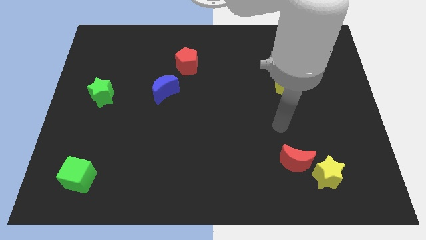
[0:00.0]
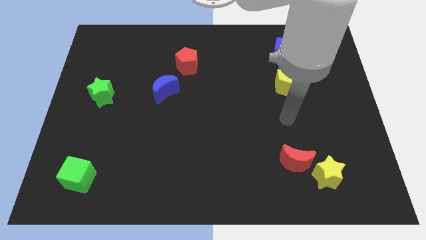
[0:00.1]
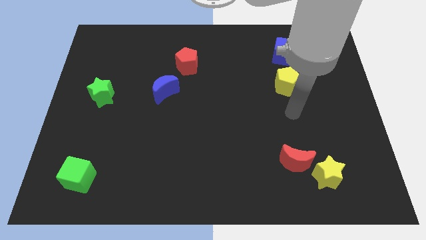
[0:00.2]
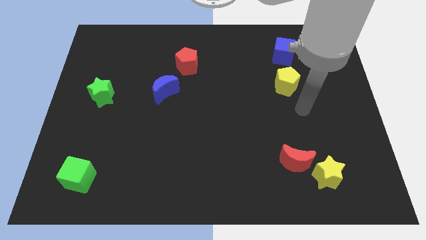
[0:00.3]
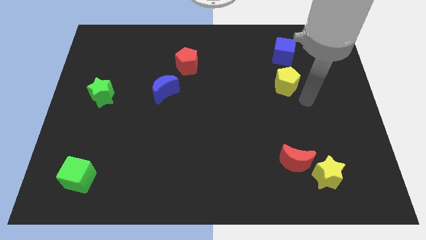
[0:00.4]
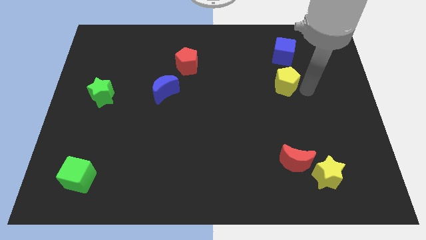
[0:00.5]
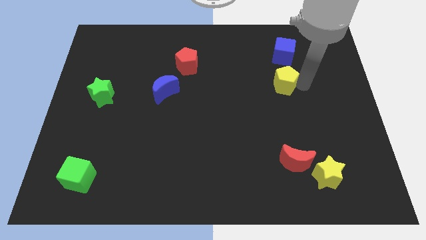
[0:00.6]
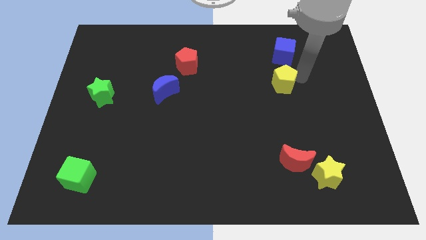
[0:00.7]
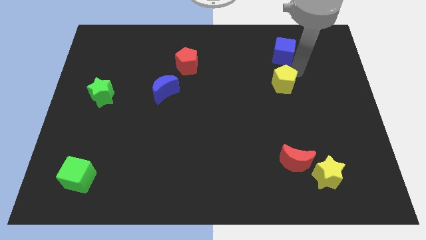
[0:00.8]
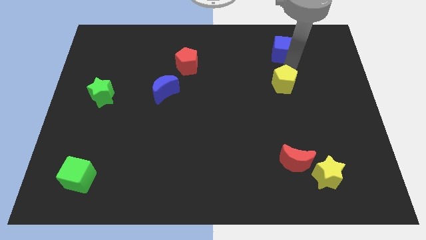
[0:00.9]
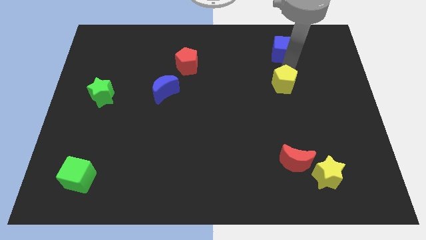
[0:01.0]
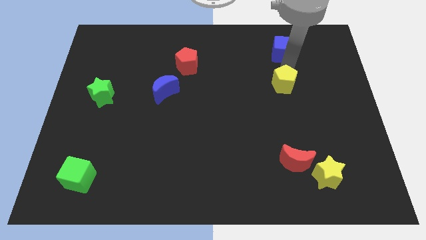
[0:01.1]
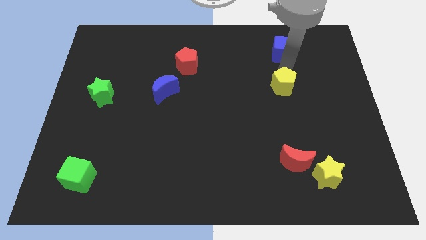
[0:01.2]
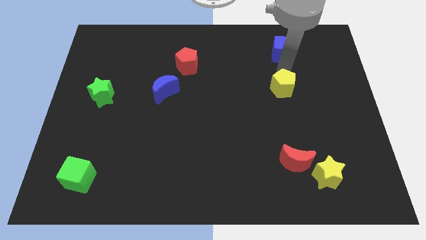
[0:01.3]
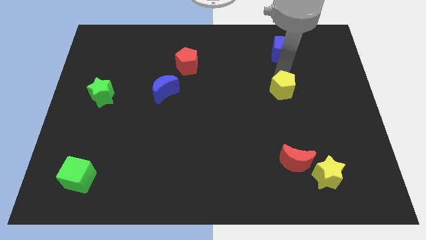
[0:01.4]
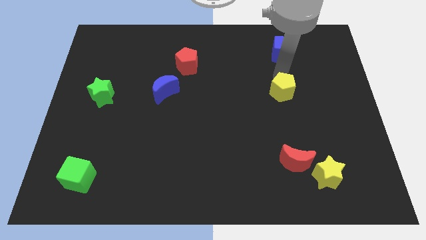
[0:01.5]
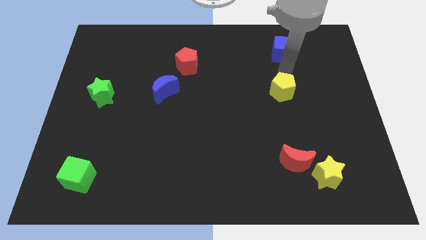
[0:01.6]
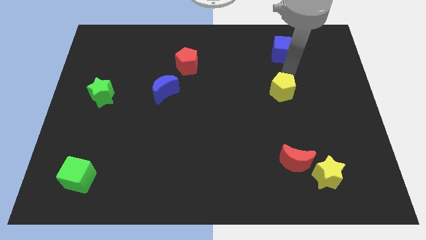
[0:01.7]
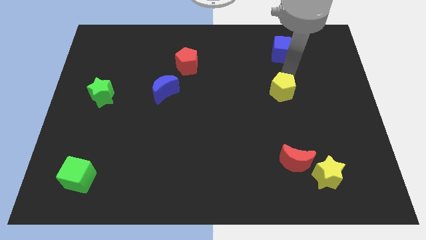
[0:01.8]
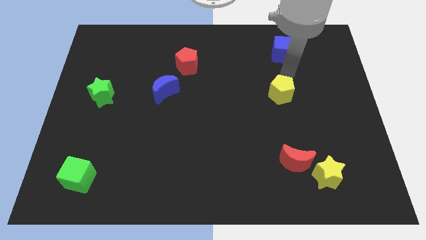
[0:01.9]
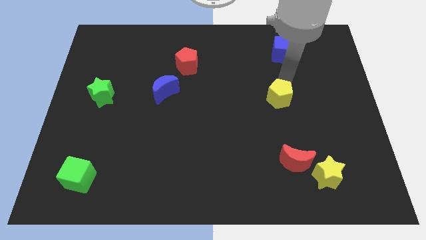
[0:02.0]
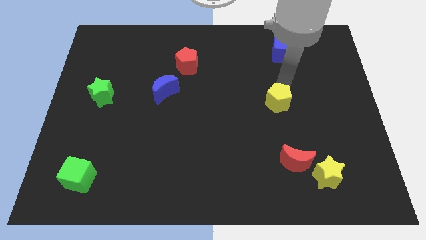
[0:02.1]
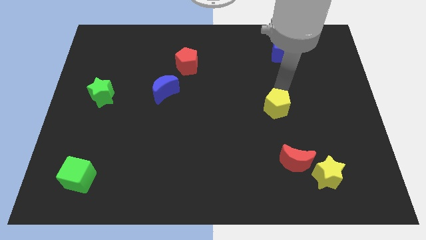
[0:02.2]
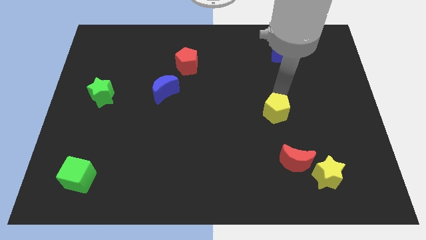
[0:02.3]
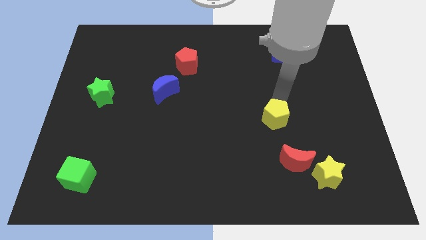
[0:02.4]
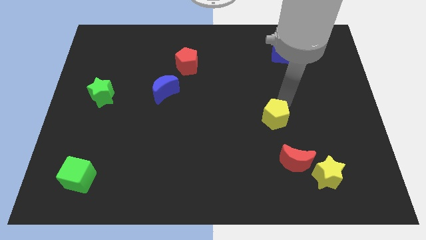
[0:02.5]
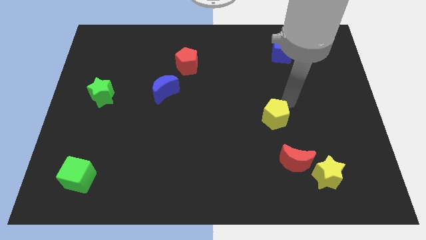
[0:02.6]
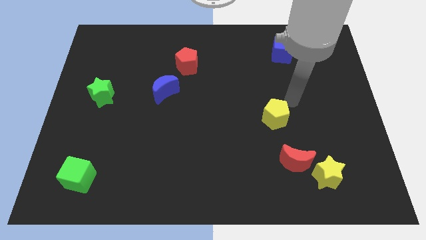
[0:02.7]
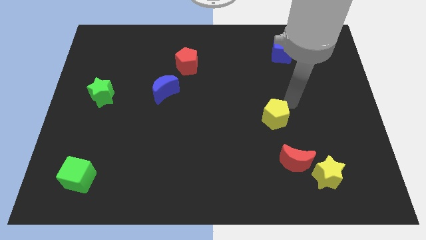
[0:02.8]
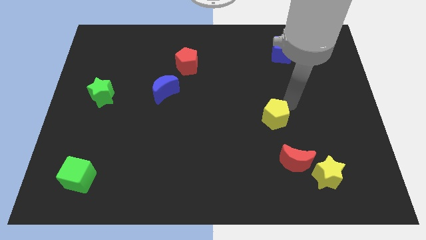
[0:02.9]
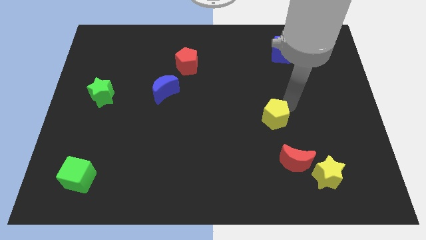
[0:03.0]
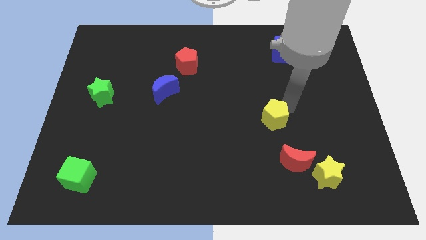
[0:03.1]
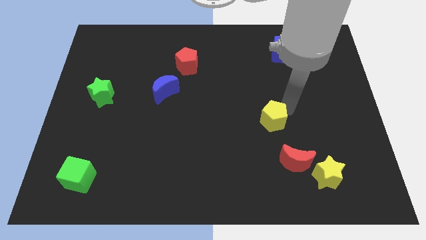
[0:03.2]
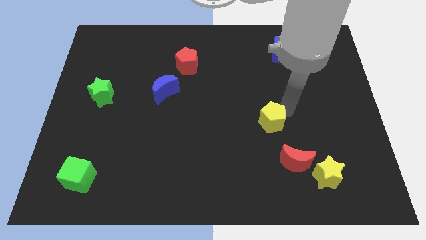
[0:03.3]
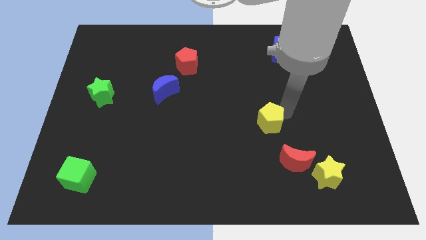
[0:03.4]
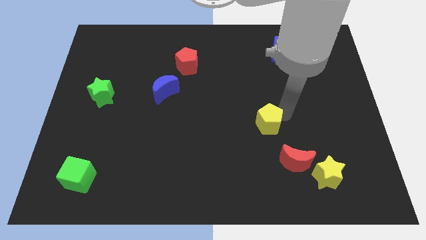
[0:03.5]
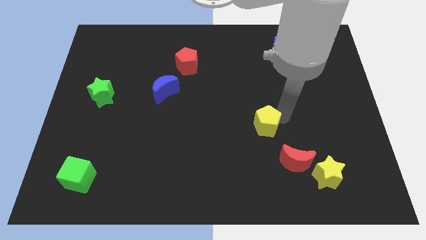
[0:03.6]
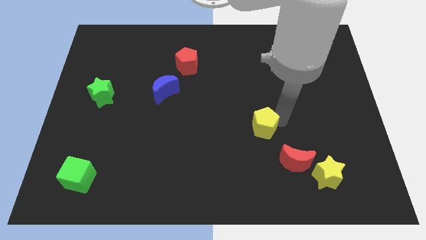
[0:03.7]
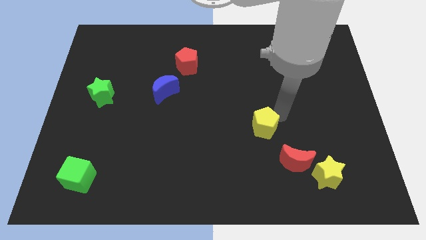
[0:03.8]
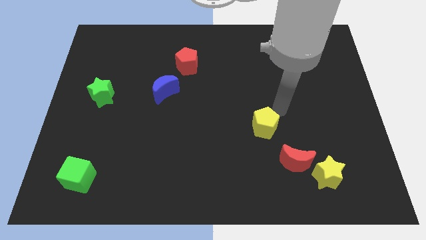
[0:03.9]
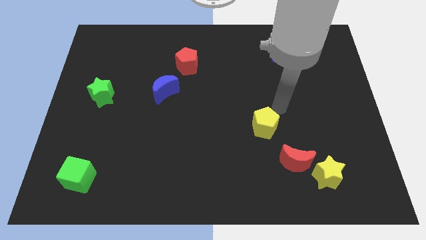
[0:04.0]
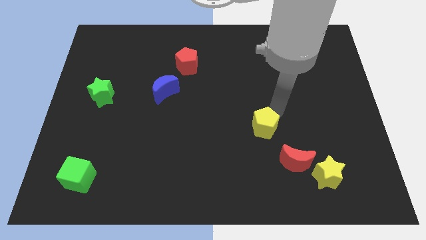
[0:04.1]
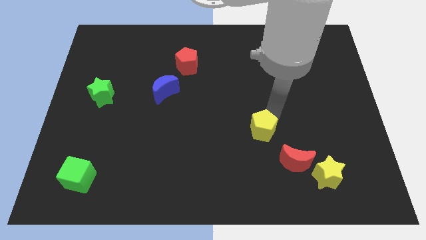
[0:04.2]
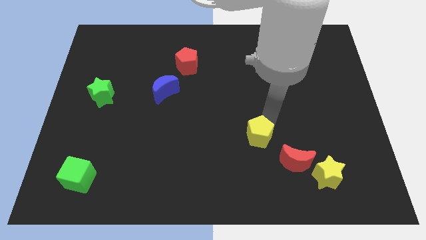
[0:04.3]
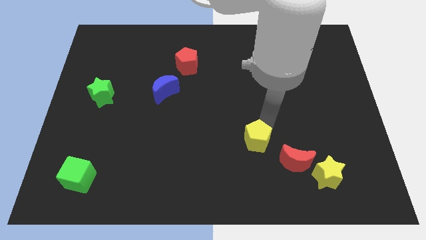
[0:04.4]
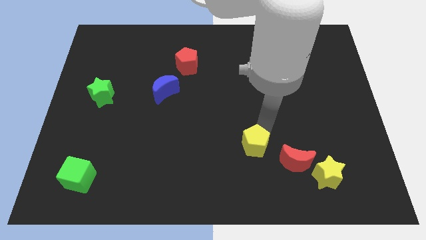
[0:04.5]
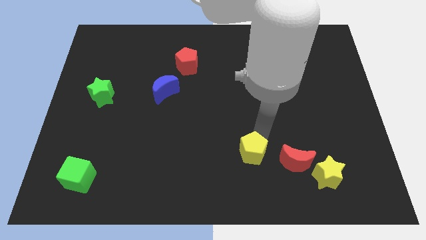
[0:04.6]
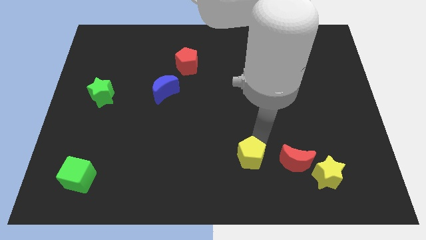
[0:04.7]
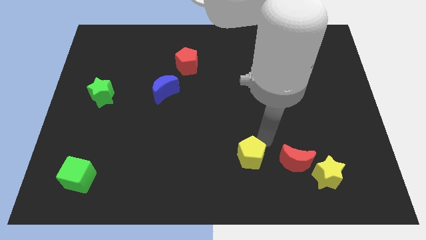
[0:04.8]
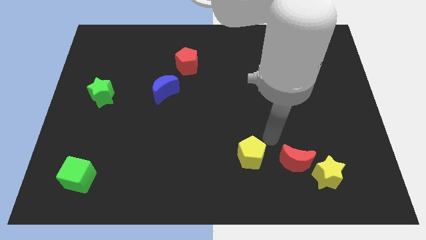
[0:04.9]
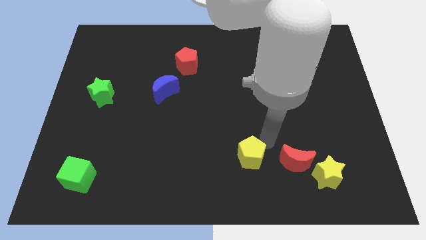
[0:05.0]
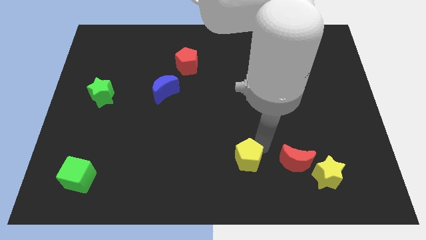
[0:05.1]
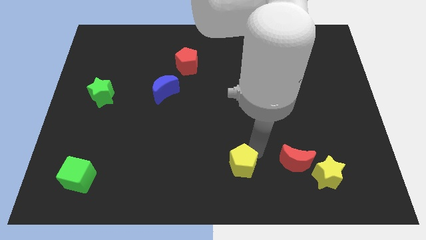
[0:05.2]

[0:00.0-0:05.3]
move the yellow pentagon to the bottom

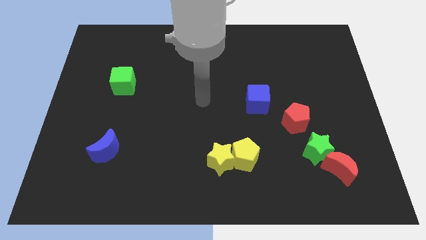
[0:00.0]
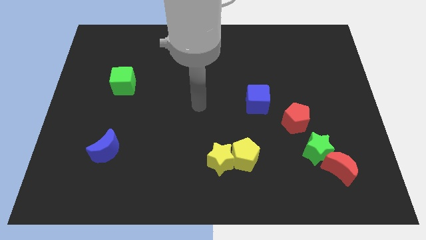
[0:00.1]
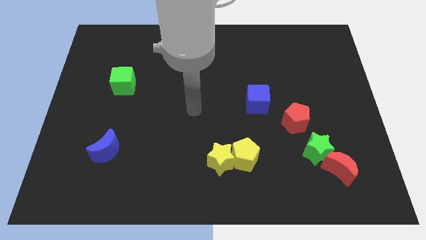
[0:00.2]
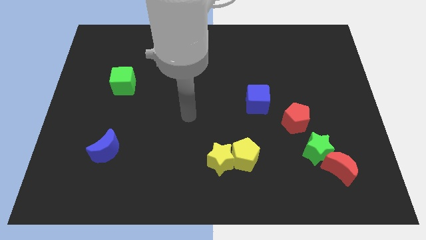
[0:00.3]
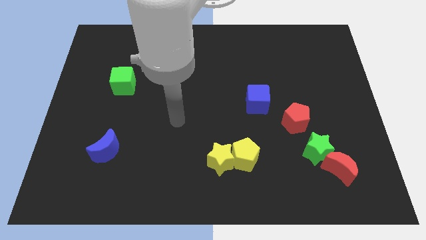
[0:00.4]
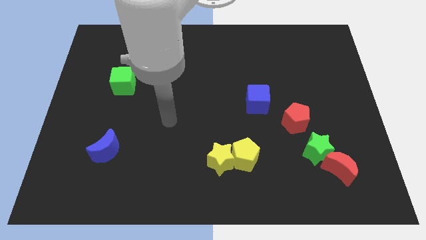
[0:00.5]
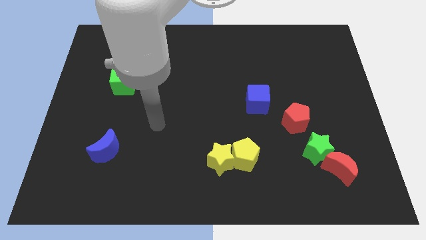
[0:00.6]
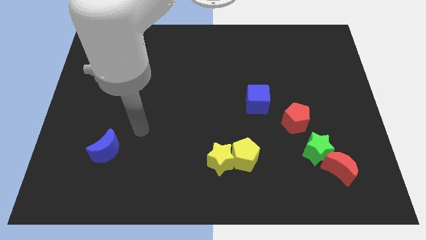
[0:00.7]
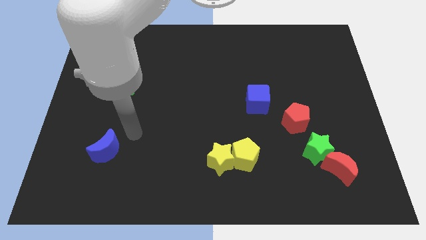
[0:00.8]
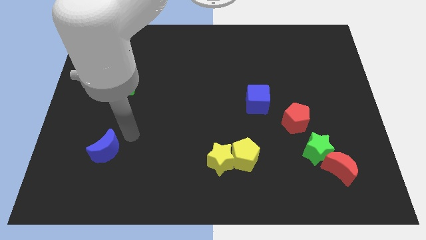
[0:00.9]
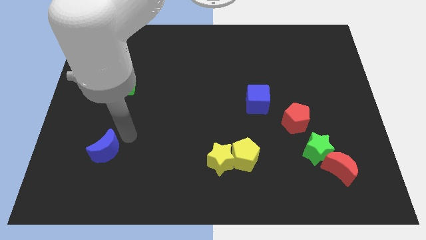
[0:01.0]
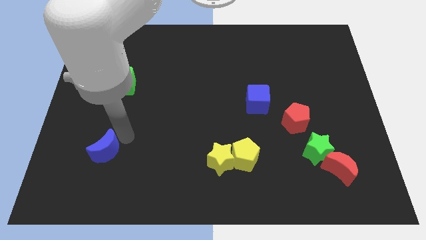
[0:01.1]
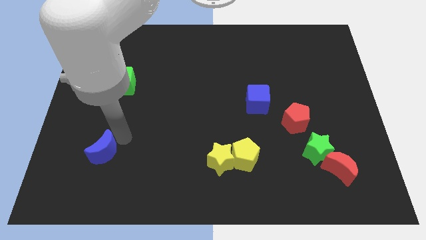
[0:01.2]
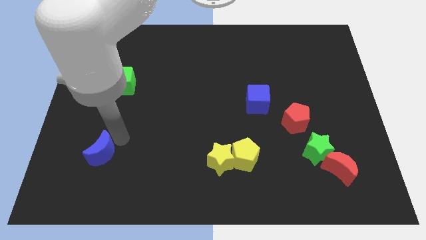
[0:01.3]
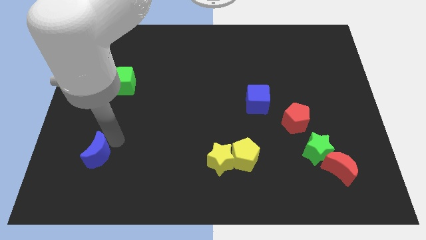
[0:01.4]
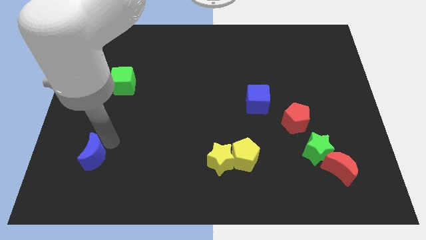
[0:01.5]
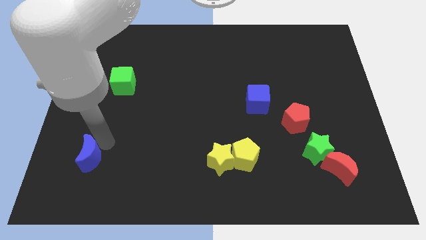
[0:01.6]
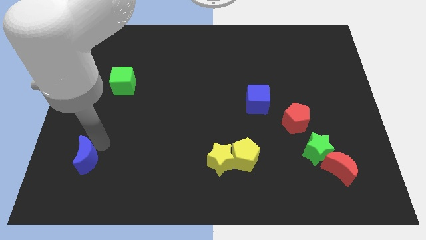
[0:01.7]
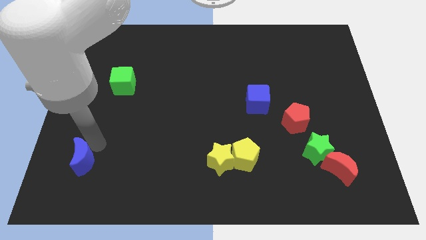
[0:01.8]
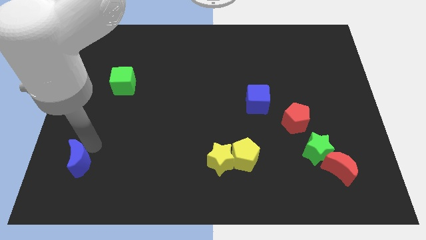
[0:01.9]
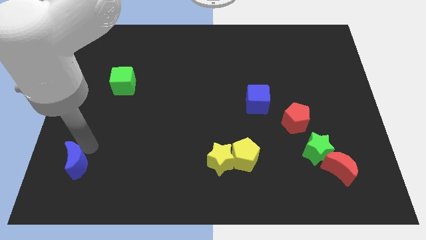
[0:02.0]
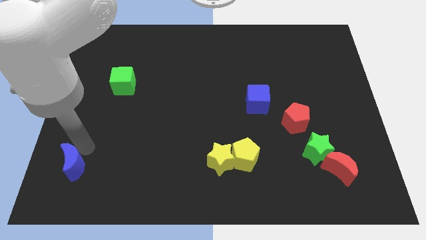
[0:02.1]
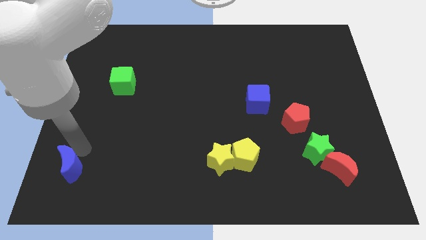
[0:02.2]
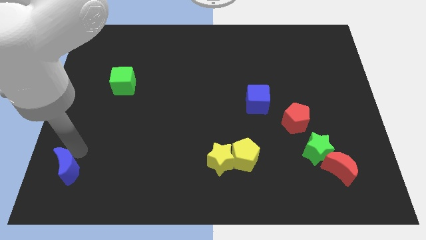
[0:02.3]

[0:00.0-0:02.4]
move the blue moon to the bottom left corner
